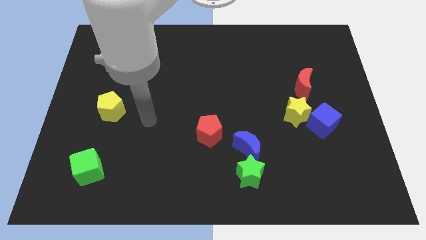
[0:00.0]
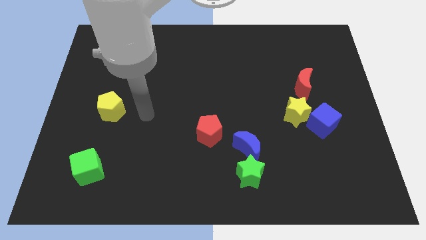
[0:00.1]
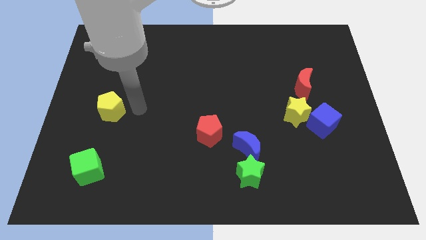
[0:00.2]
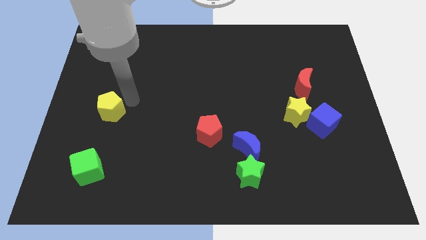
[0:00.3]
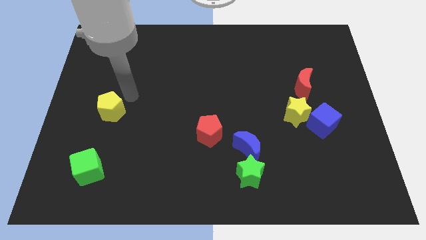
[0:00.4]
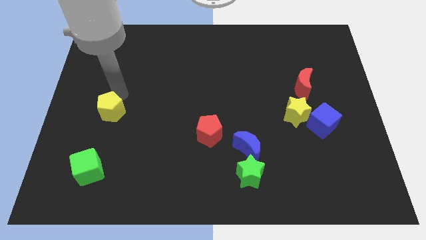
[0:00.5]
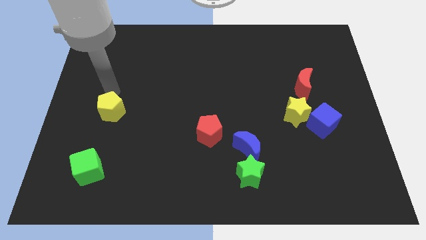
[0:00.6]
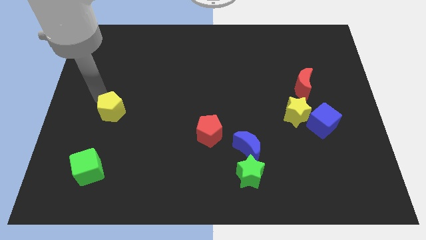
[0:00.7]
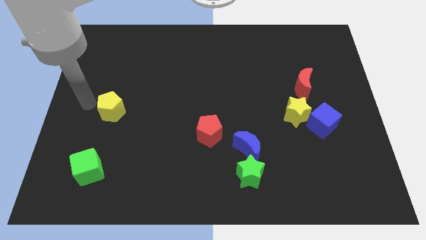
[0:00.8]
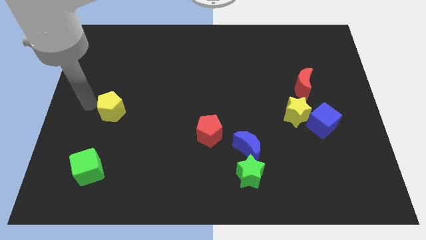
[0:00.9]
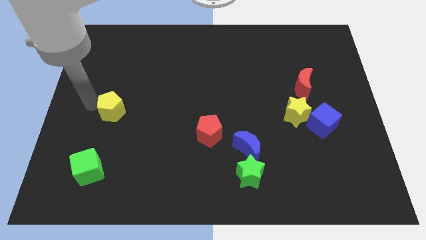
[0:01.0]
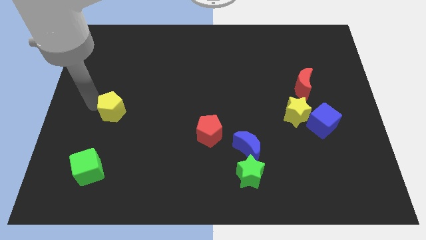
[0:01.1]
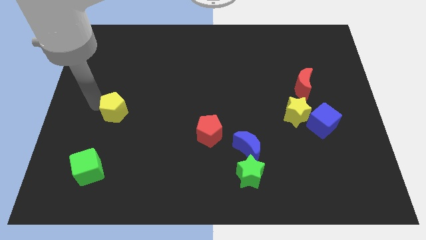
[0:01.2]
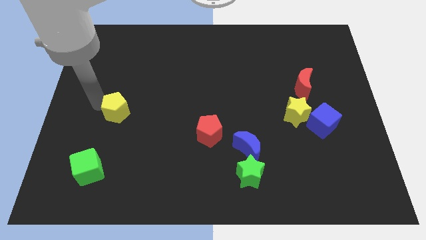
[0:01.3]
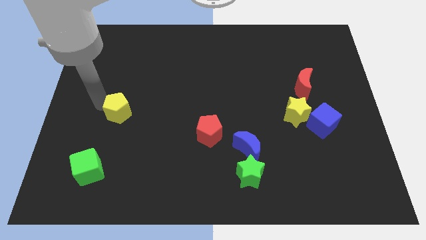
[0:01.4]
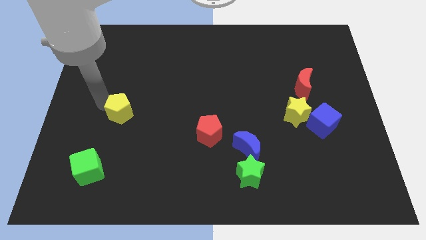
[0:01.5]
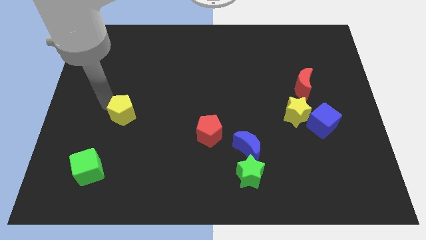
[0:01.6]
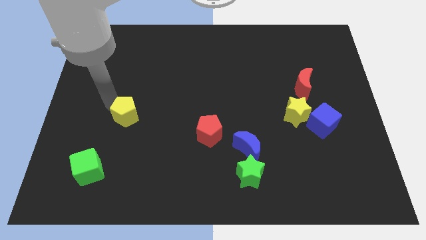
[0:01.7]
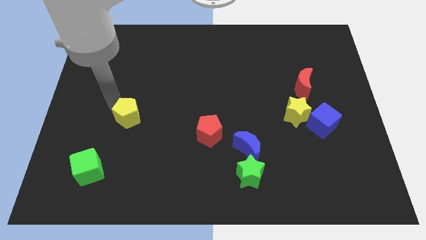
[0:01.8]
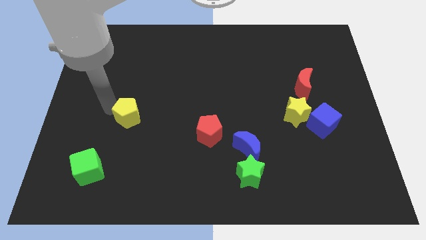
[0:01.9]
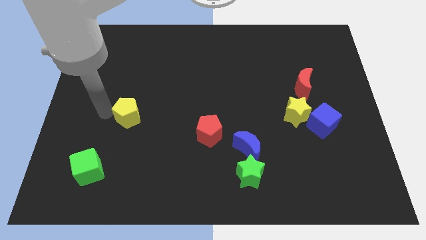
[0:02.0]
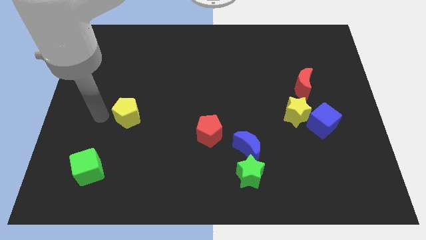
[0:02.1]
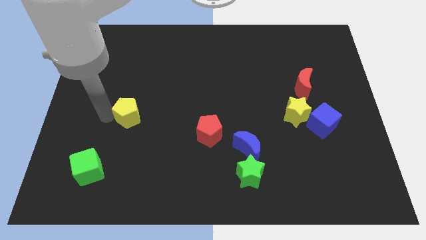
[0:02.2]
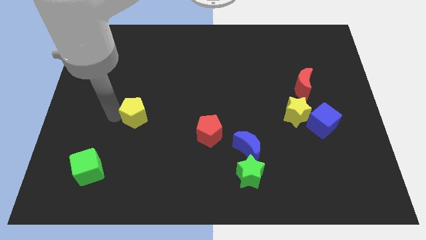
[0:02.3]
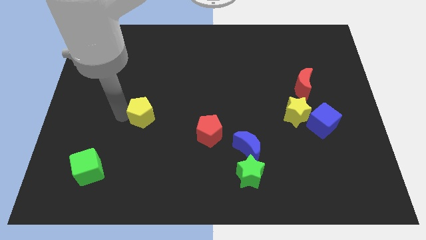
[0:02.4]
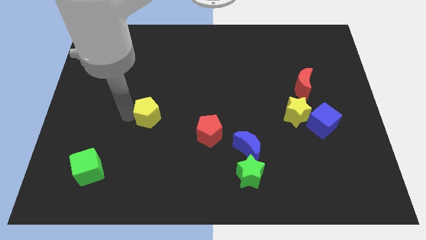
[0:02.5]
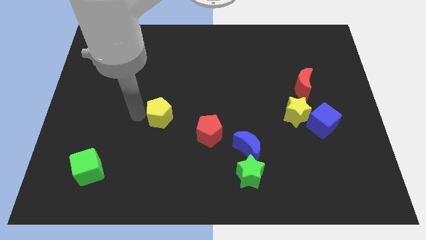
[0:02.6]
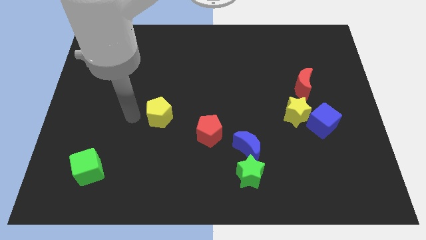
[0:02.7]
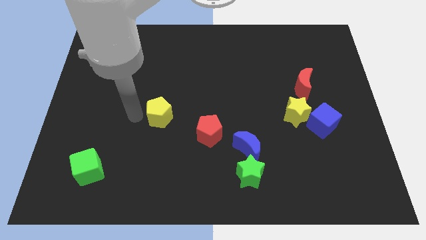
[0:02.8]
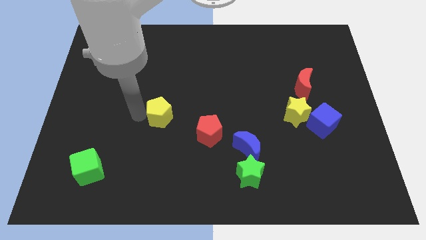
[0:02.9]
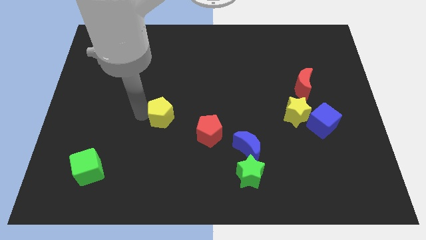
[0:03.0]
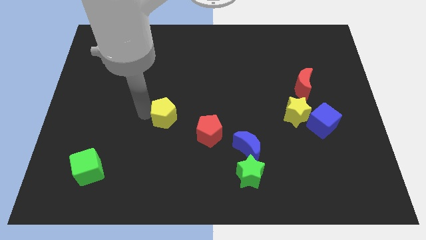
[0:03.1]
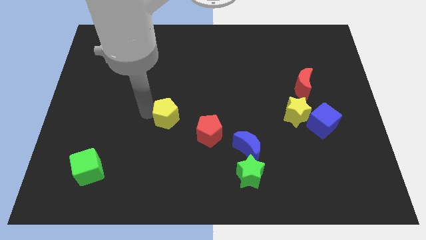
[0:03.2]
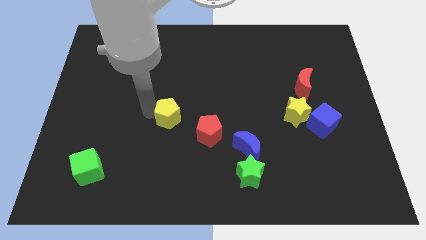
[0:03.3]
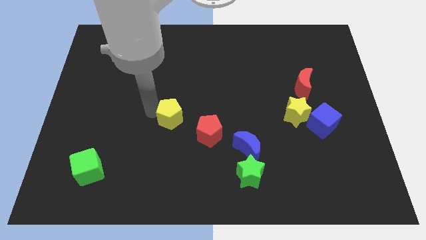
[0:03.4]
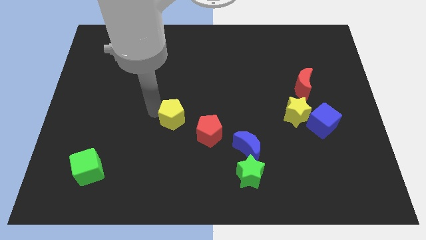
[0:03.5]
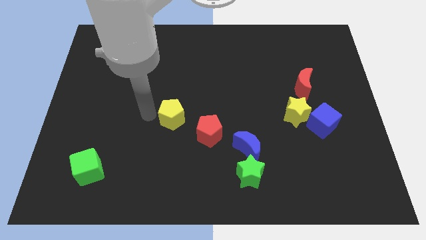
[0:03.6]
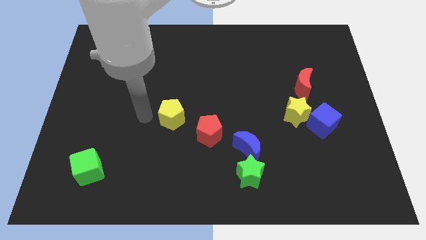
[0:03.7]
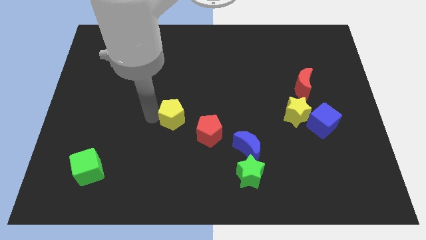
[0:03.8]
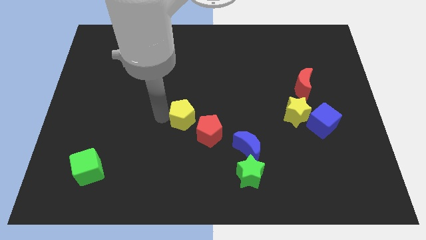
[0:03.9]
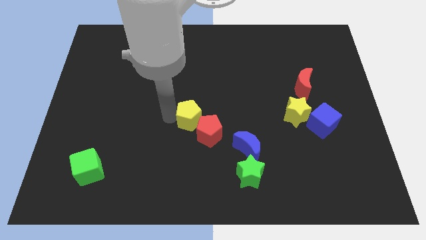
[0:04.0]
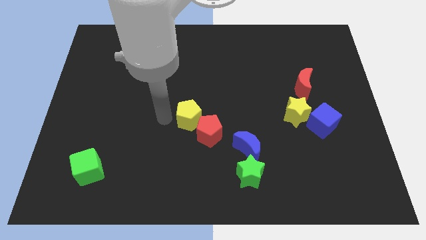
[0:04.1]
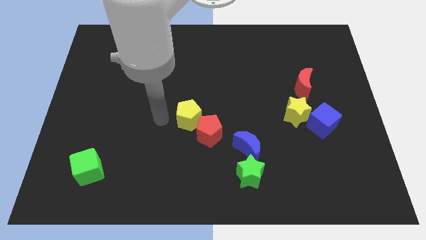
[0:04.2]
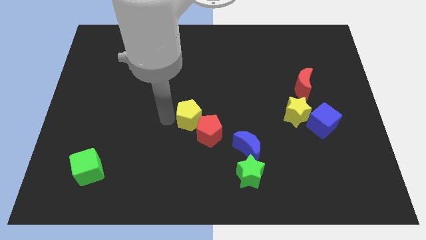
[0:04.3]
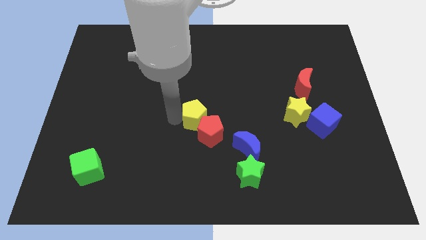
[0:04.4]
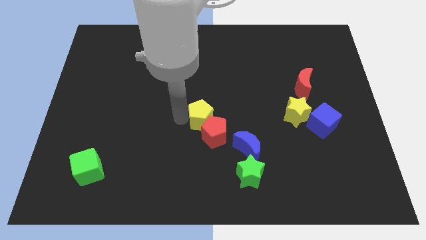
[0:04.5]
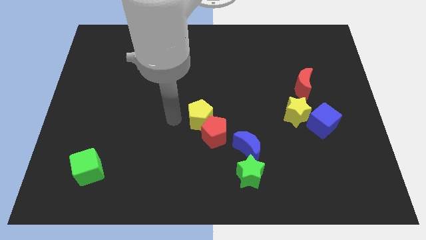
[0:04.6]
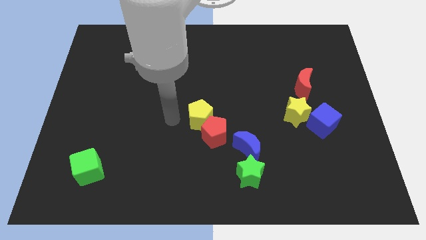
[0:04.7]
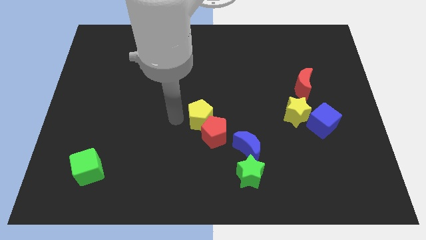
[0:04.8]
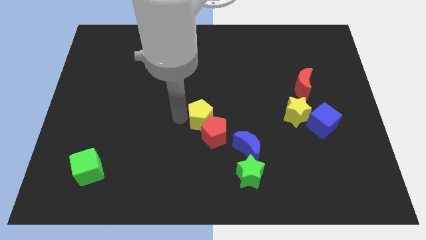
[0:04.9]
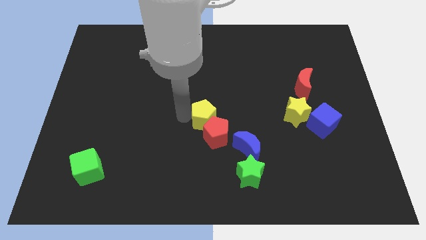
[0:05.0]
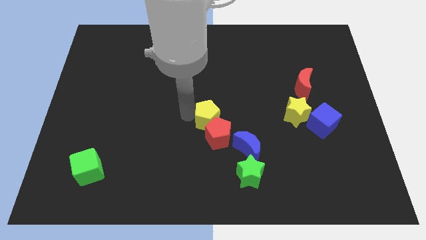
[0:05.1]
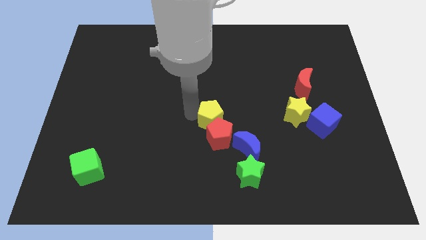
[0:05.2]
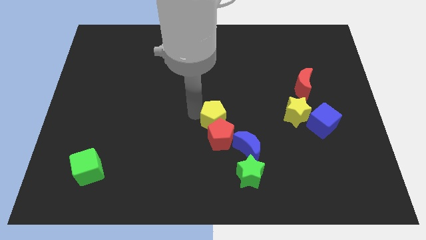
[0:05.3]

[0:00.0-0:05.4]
push the yellow pentagon to the top right side of the red pentagon

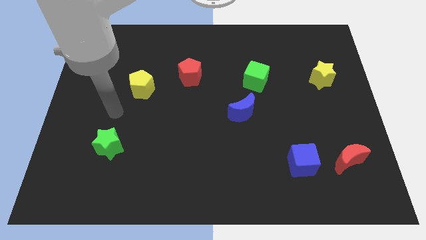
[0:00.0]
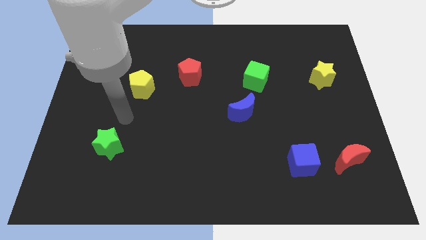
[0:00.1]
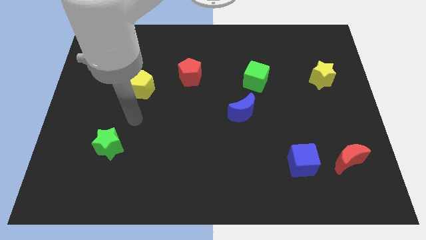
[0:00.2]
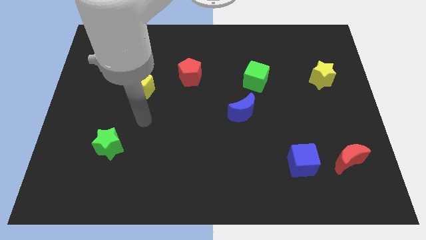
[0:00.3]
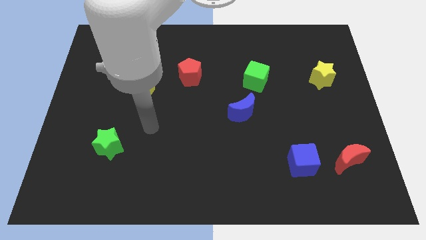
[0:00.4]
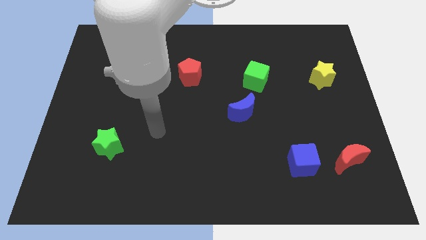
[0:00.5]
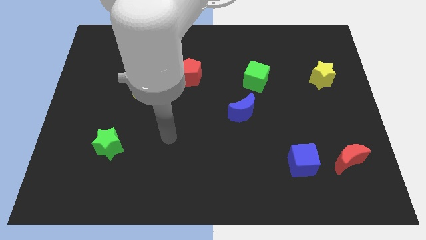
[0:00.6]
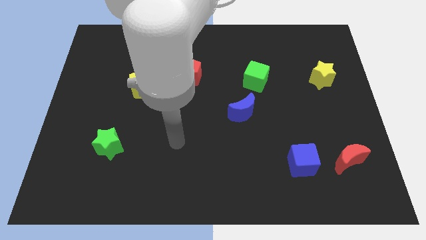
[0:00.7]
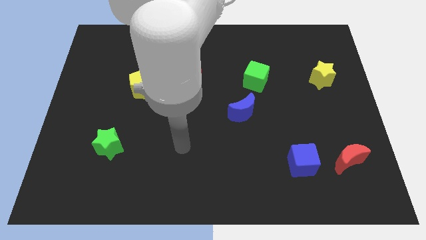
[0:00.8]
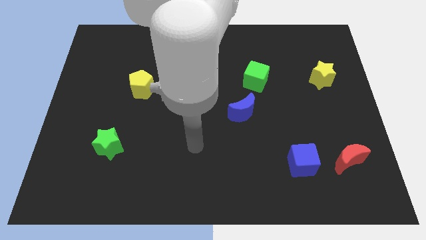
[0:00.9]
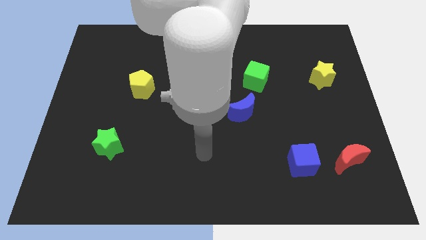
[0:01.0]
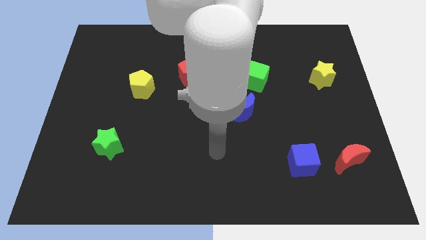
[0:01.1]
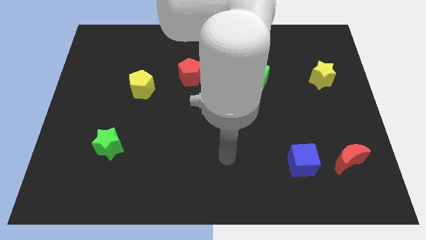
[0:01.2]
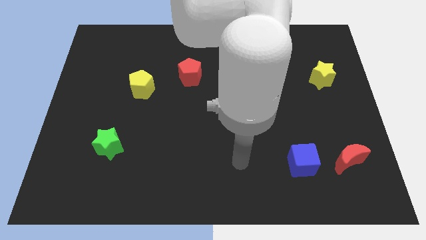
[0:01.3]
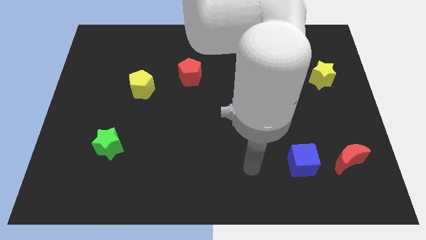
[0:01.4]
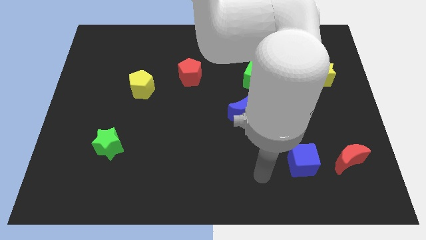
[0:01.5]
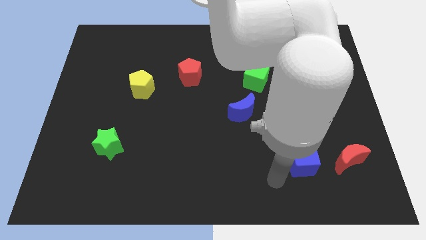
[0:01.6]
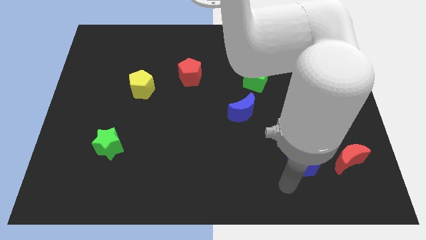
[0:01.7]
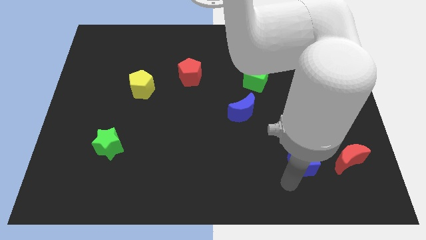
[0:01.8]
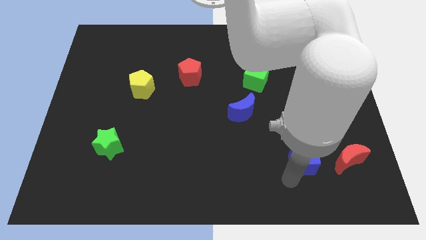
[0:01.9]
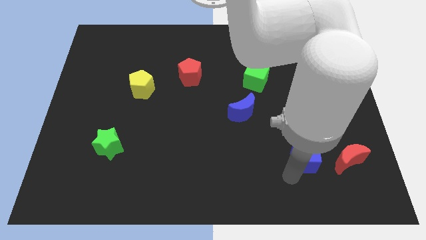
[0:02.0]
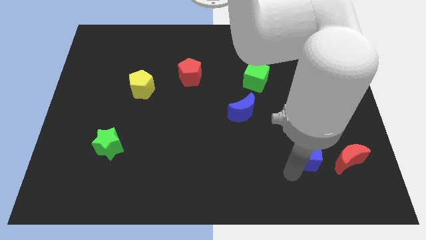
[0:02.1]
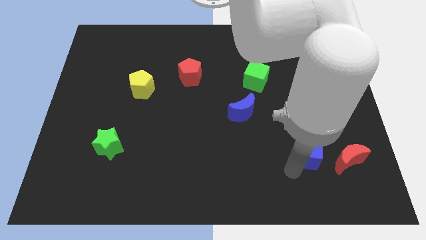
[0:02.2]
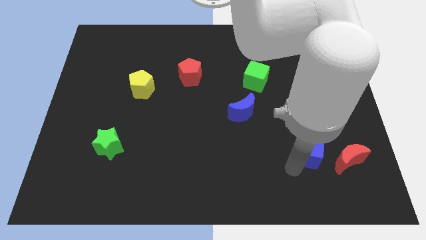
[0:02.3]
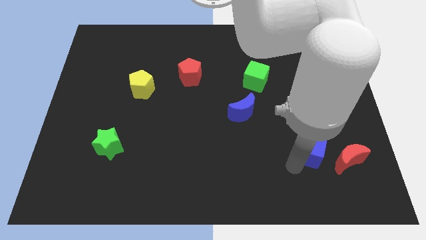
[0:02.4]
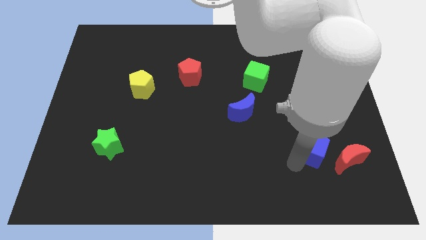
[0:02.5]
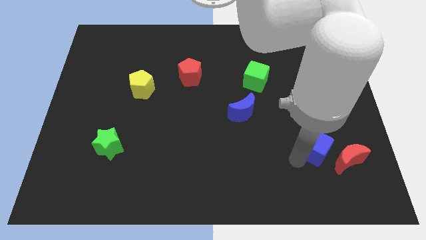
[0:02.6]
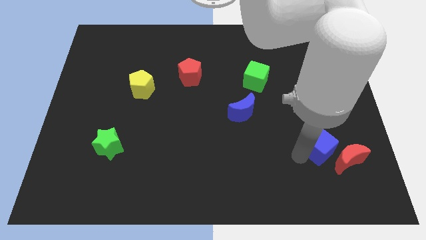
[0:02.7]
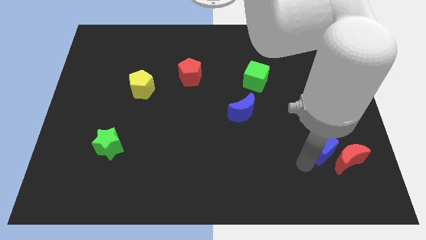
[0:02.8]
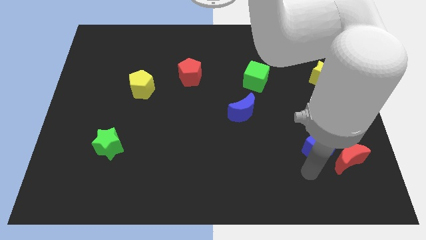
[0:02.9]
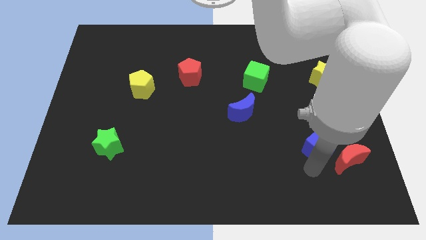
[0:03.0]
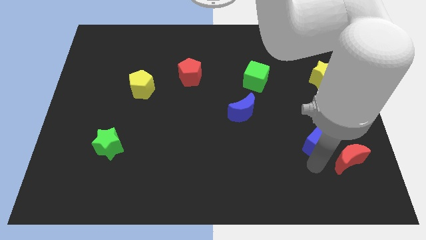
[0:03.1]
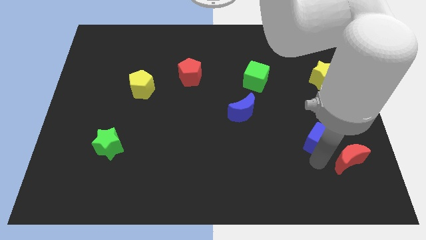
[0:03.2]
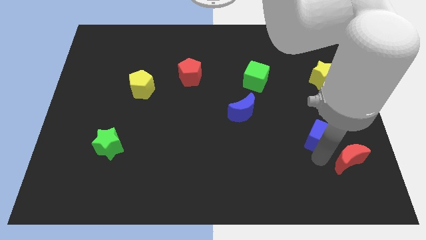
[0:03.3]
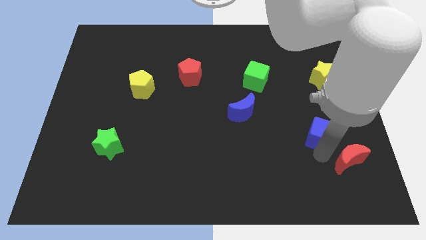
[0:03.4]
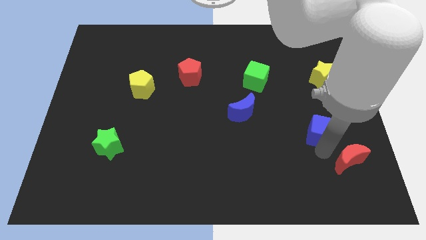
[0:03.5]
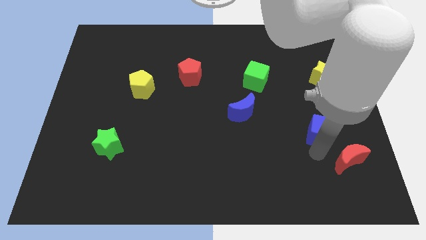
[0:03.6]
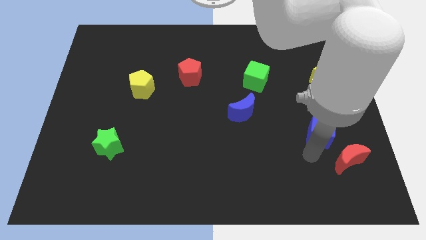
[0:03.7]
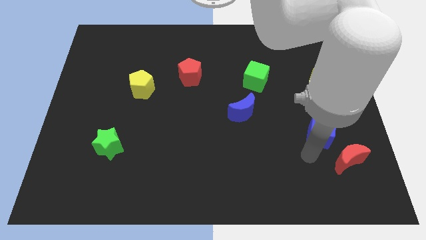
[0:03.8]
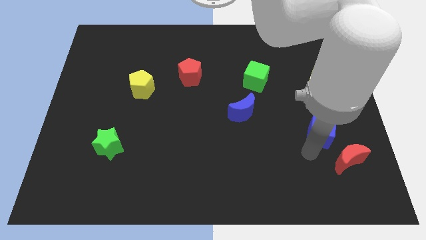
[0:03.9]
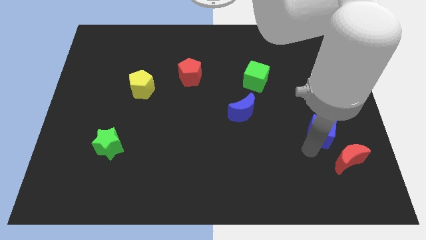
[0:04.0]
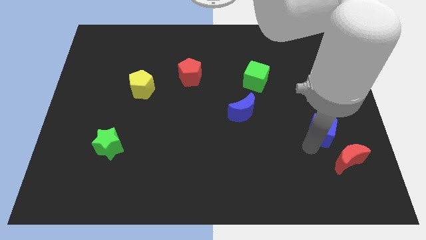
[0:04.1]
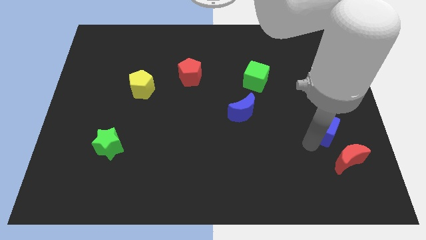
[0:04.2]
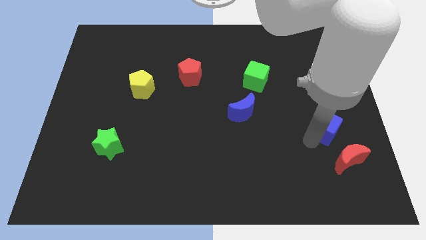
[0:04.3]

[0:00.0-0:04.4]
push the blue cube to the bottom of the yellow star
